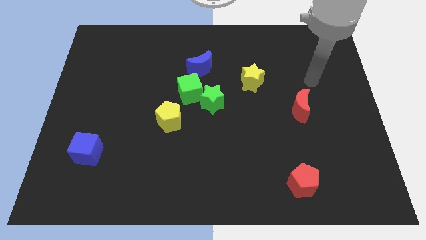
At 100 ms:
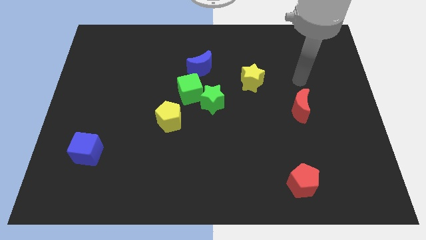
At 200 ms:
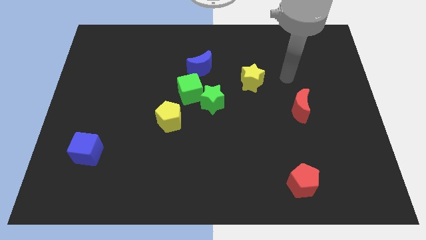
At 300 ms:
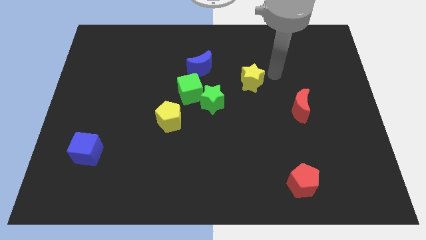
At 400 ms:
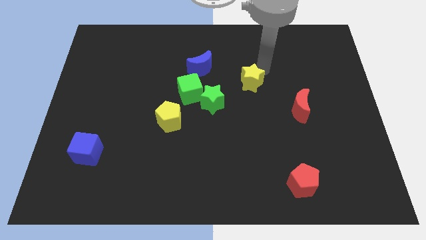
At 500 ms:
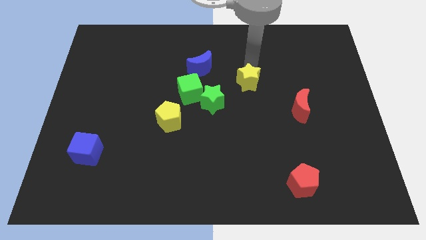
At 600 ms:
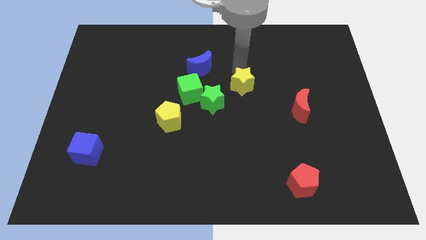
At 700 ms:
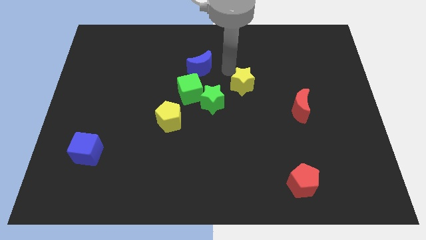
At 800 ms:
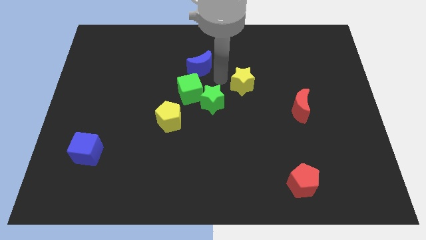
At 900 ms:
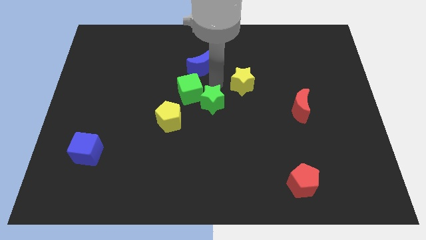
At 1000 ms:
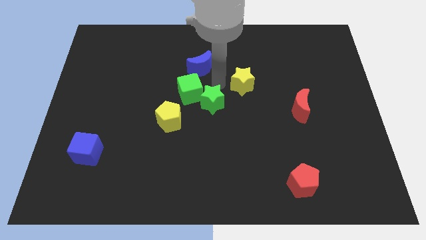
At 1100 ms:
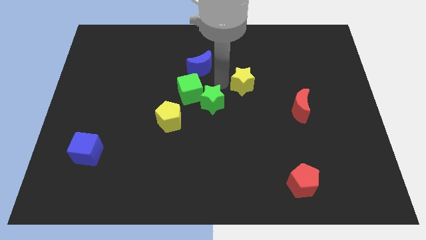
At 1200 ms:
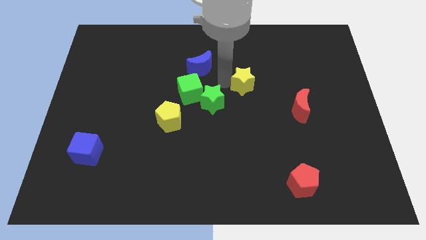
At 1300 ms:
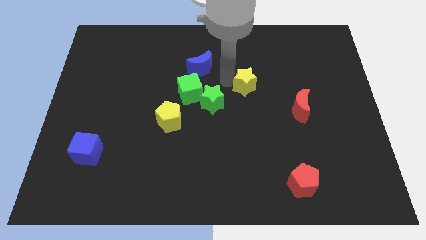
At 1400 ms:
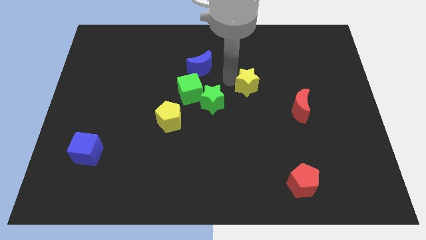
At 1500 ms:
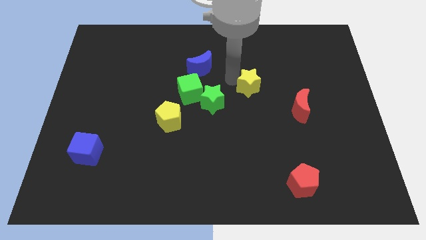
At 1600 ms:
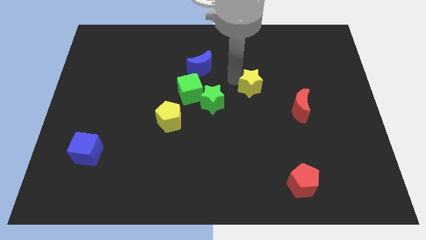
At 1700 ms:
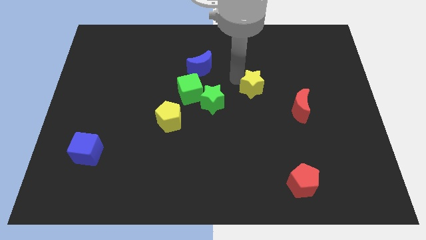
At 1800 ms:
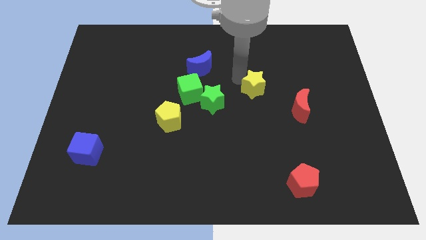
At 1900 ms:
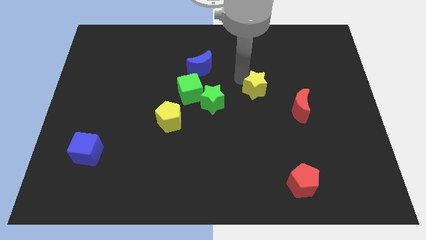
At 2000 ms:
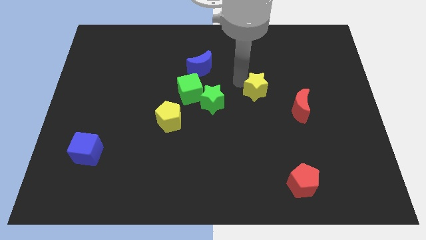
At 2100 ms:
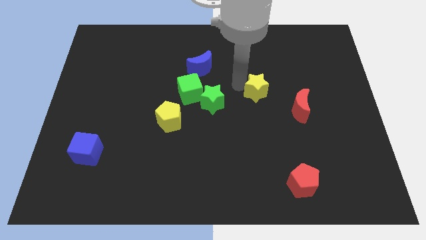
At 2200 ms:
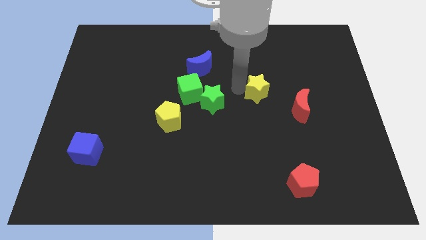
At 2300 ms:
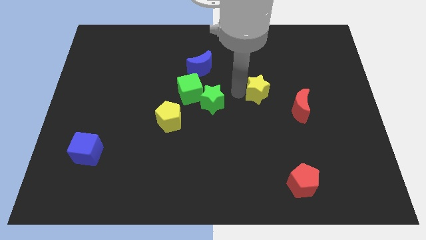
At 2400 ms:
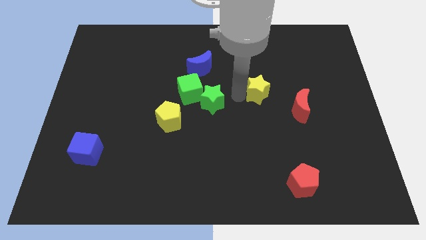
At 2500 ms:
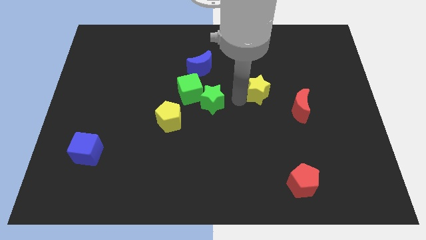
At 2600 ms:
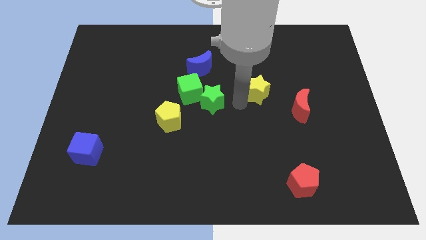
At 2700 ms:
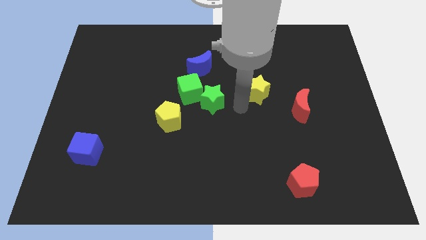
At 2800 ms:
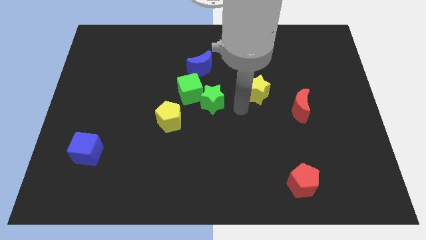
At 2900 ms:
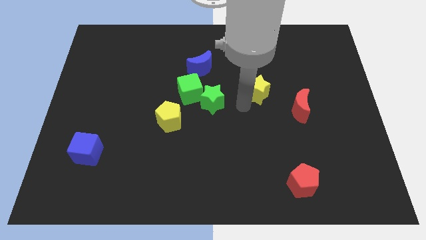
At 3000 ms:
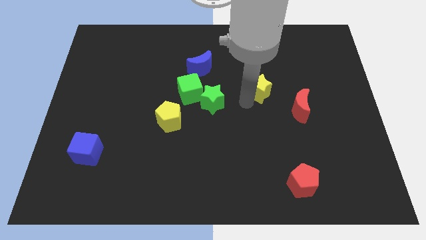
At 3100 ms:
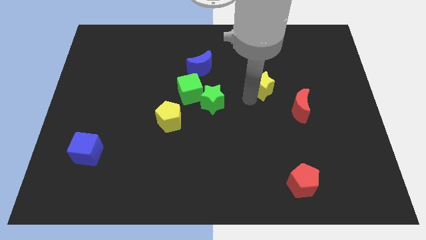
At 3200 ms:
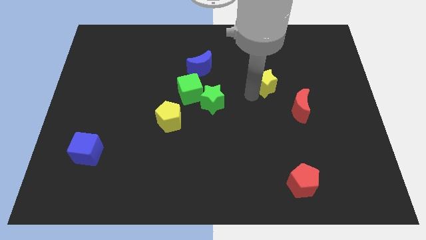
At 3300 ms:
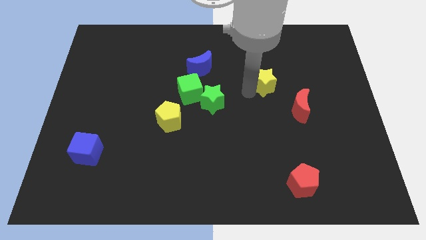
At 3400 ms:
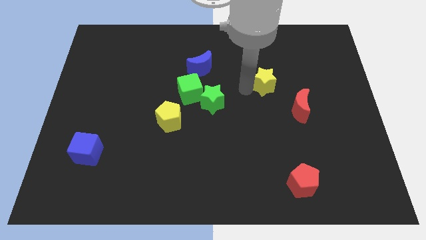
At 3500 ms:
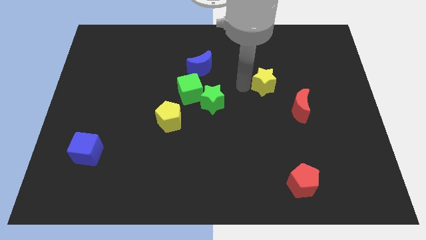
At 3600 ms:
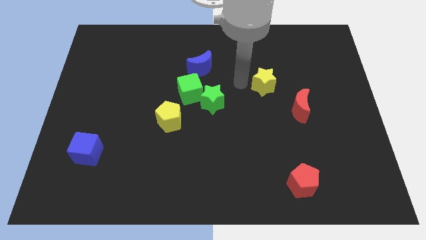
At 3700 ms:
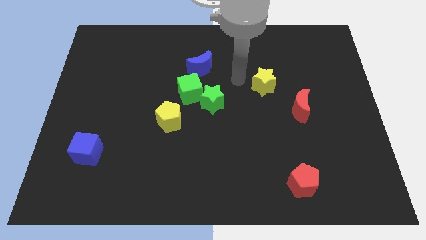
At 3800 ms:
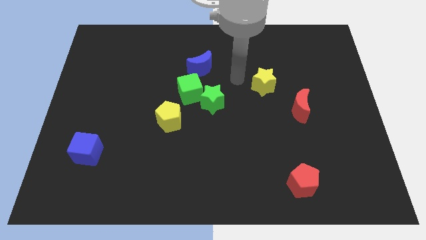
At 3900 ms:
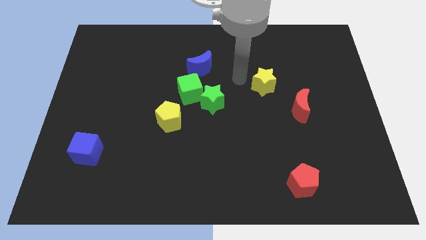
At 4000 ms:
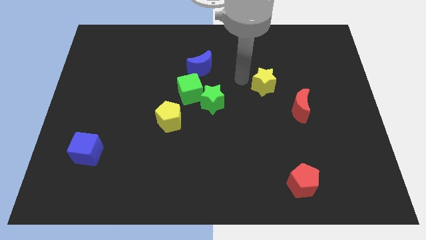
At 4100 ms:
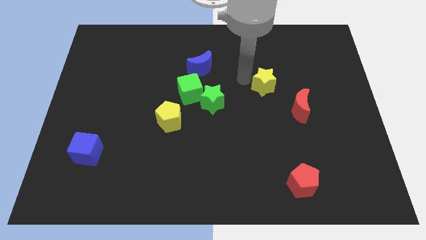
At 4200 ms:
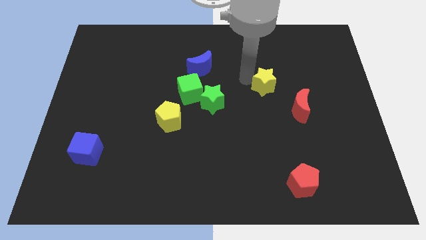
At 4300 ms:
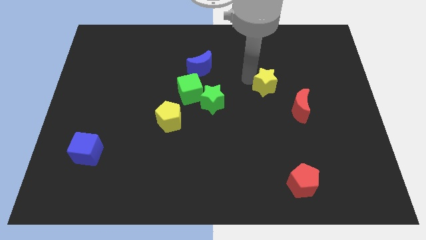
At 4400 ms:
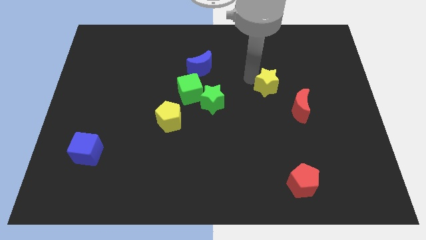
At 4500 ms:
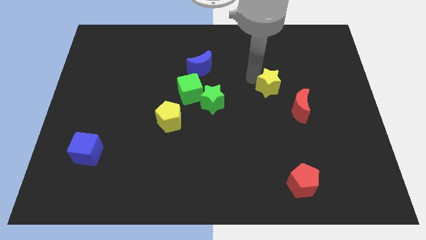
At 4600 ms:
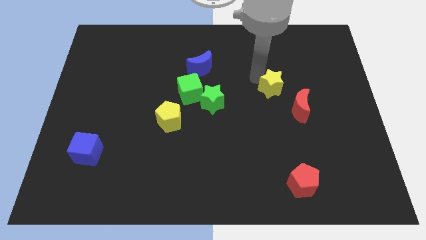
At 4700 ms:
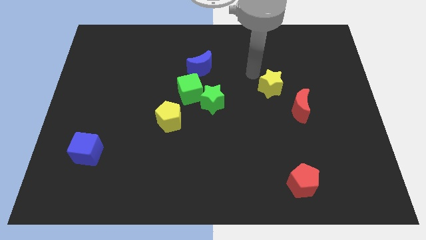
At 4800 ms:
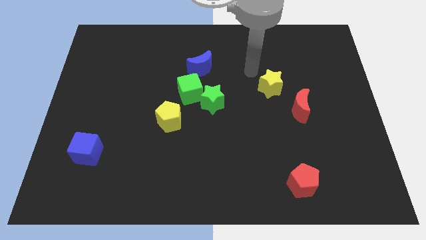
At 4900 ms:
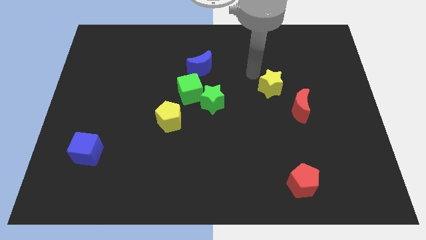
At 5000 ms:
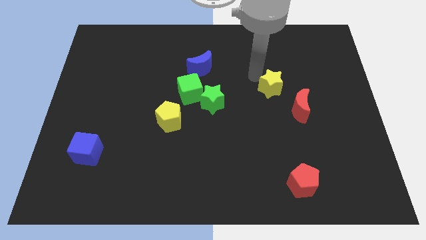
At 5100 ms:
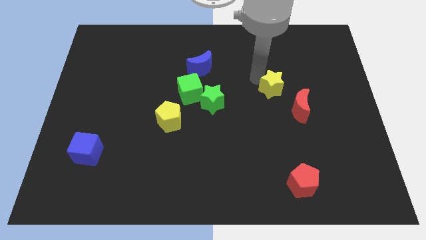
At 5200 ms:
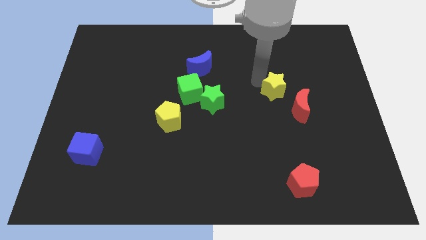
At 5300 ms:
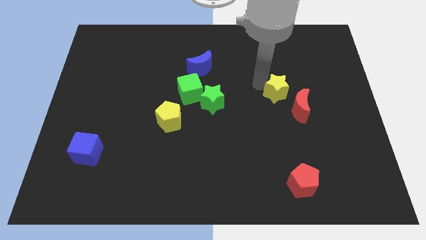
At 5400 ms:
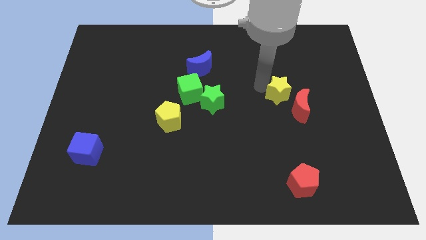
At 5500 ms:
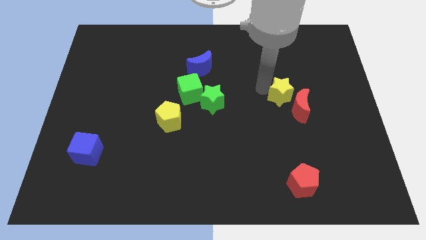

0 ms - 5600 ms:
slide the yellow star next to the red moon

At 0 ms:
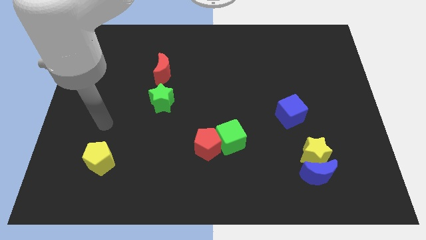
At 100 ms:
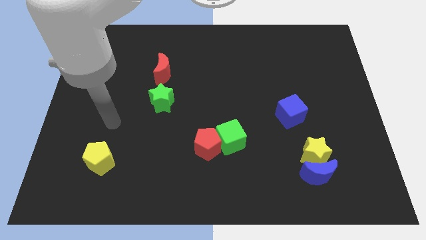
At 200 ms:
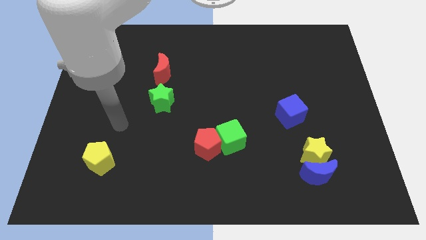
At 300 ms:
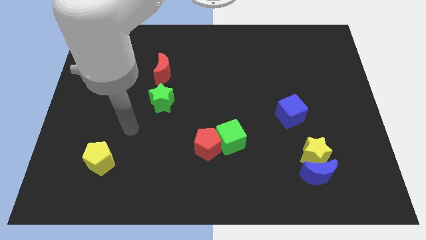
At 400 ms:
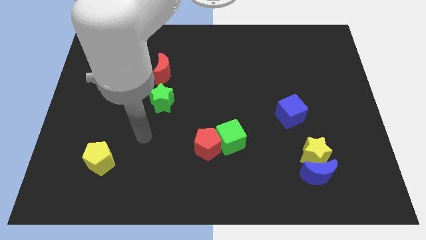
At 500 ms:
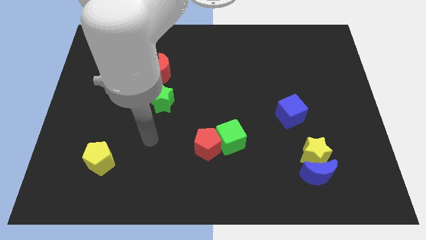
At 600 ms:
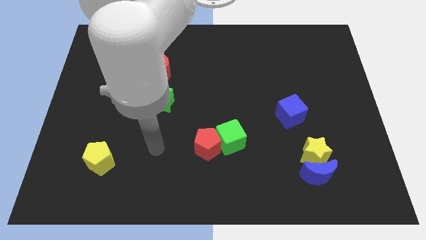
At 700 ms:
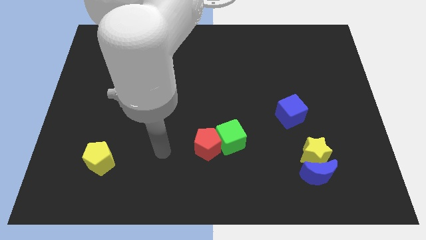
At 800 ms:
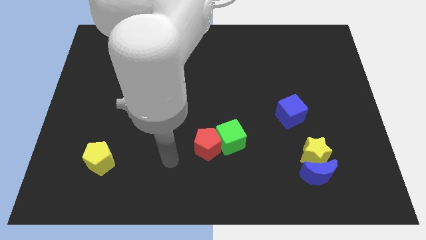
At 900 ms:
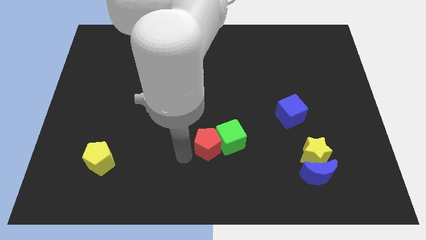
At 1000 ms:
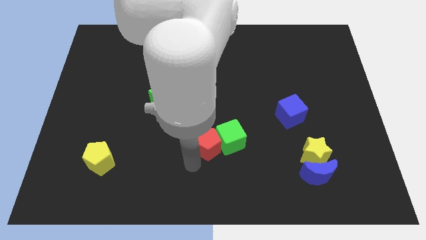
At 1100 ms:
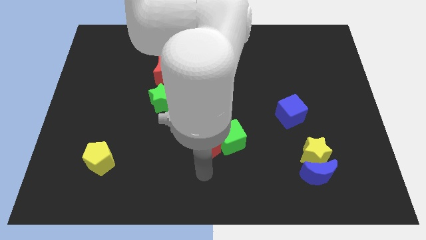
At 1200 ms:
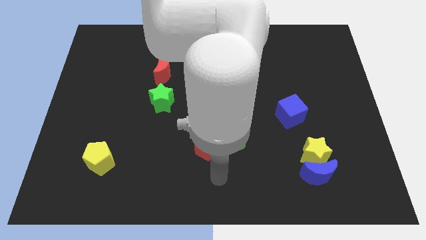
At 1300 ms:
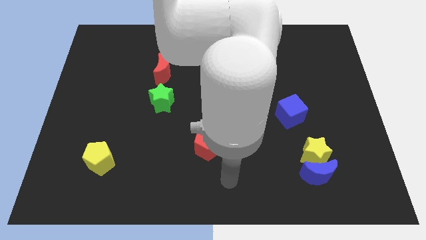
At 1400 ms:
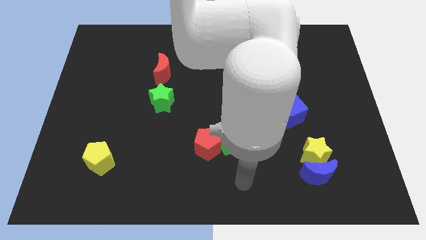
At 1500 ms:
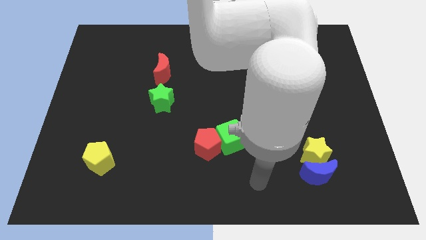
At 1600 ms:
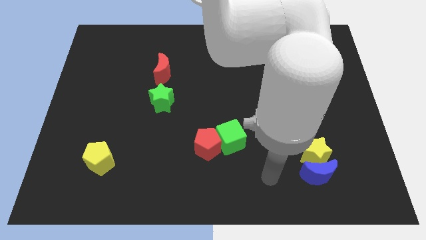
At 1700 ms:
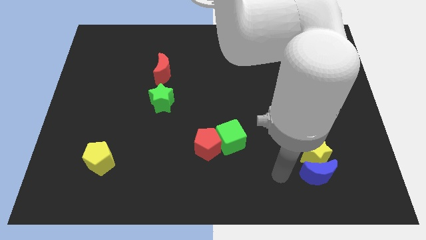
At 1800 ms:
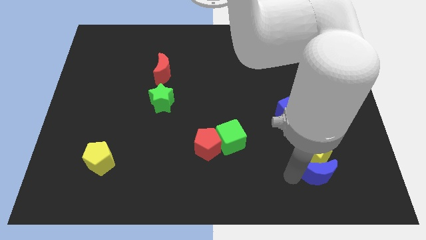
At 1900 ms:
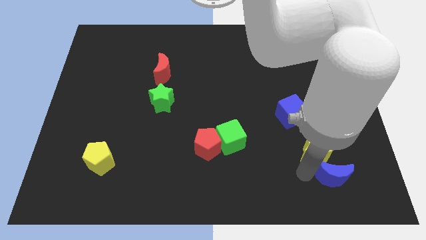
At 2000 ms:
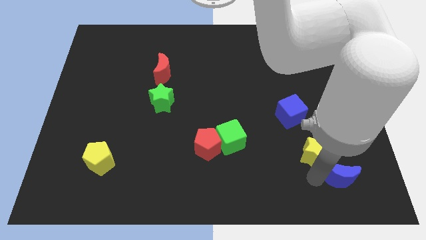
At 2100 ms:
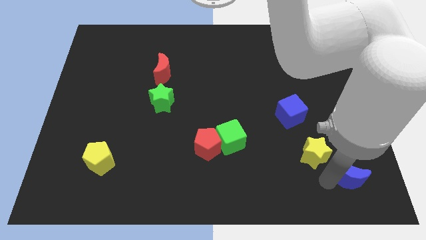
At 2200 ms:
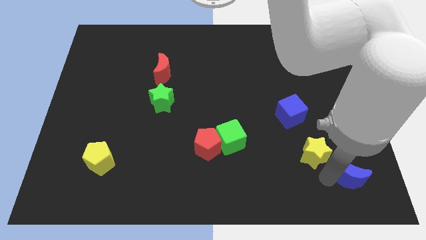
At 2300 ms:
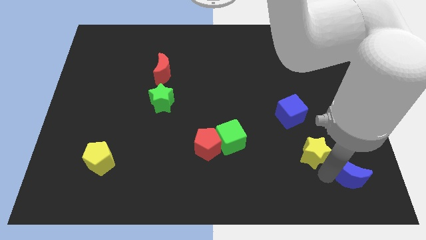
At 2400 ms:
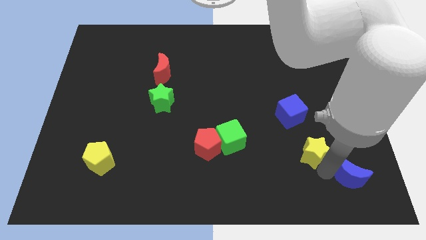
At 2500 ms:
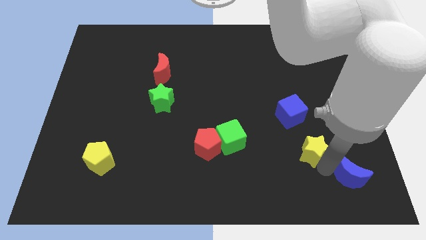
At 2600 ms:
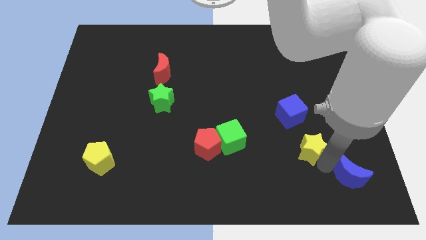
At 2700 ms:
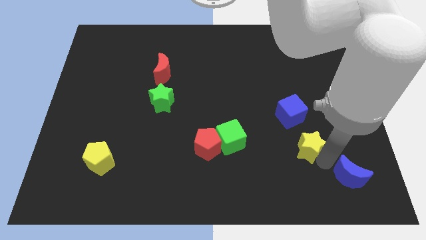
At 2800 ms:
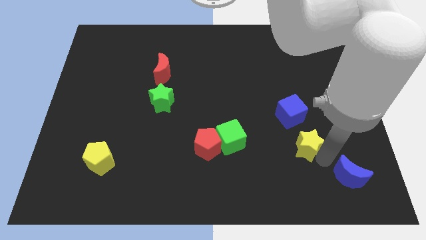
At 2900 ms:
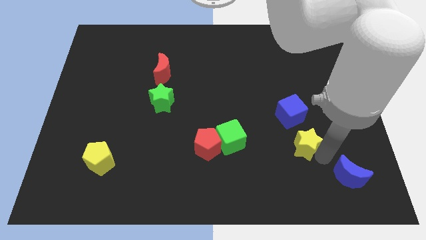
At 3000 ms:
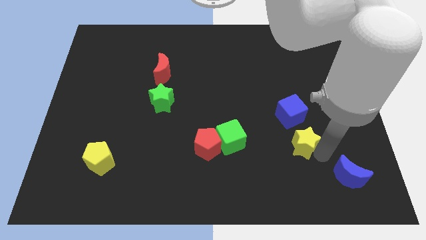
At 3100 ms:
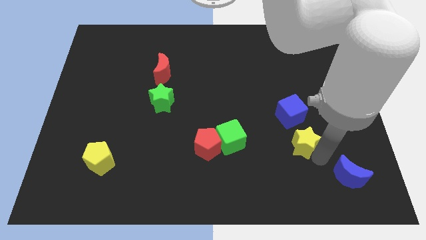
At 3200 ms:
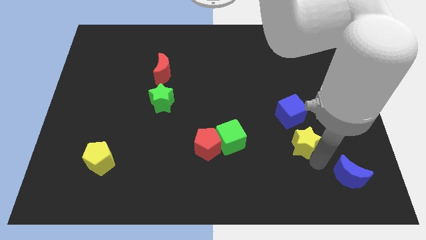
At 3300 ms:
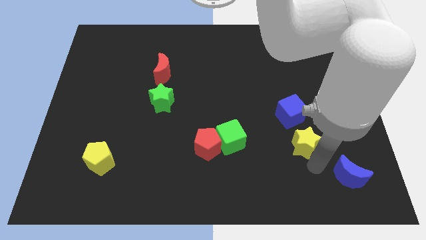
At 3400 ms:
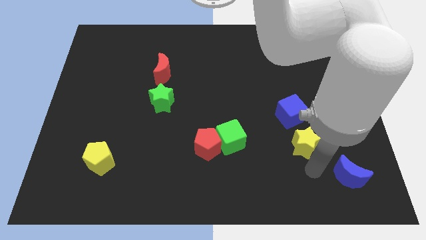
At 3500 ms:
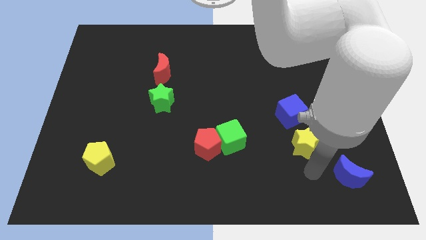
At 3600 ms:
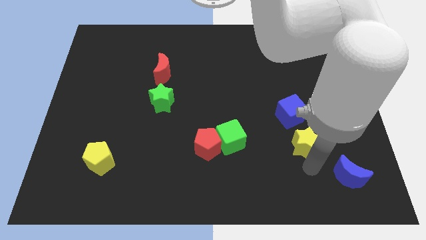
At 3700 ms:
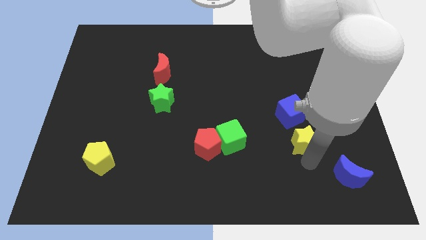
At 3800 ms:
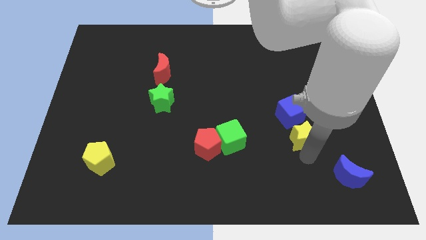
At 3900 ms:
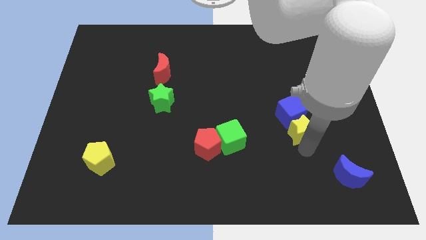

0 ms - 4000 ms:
push the yellow star towards the blue cube
